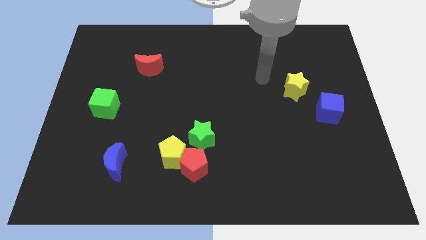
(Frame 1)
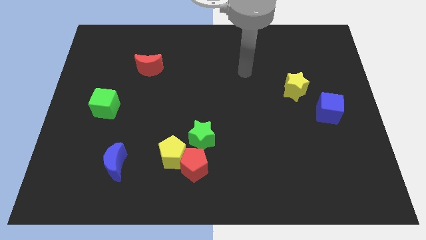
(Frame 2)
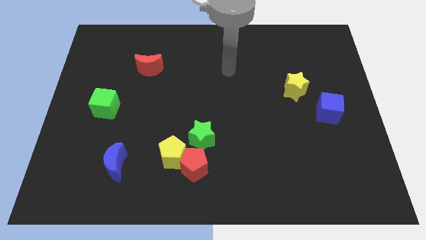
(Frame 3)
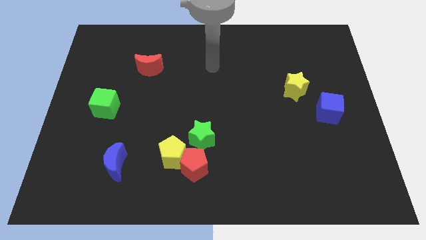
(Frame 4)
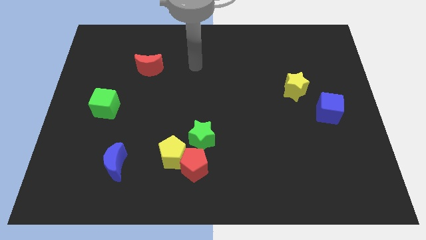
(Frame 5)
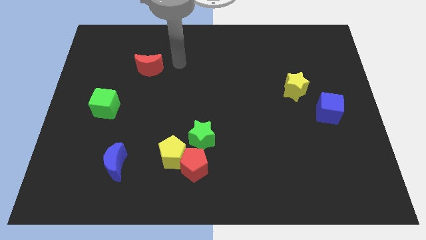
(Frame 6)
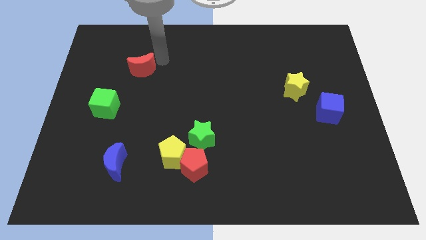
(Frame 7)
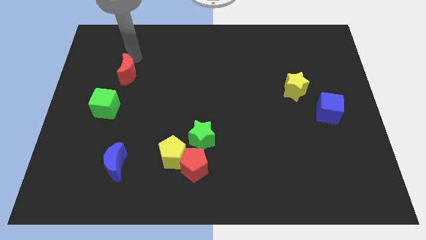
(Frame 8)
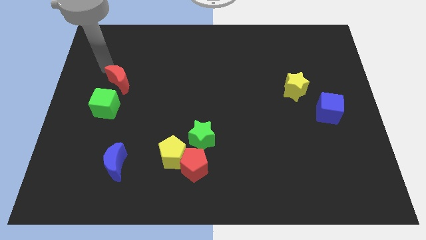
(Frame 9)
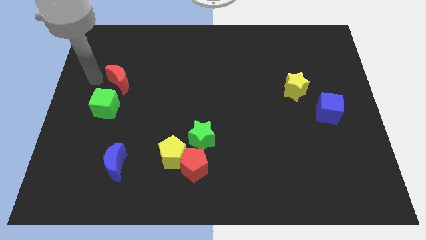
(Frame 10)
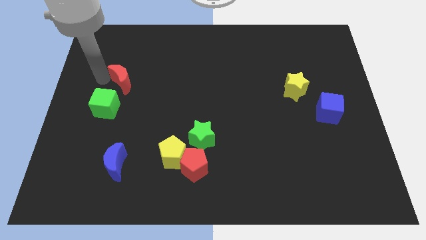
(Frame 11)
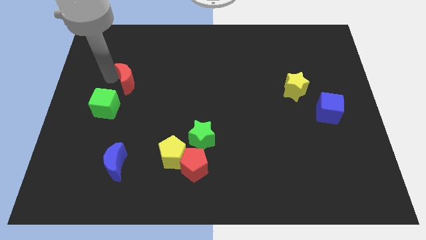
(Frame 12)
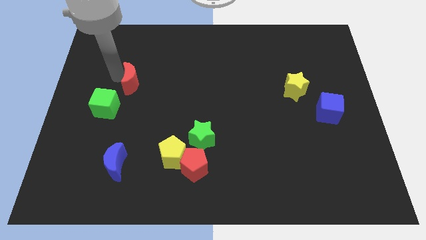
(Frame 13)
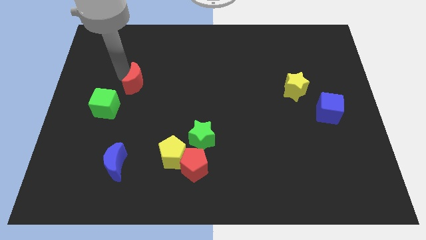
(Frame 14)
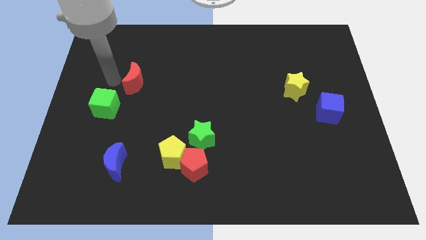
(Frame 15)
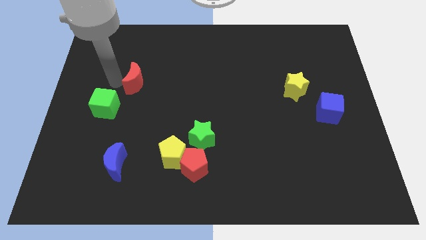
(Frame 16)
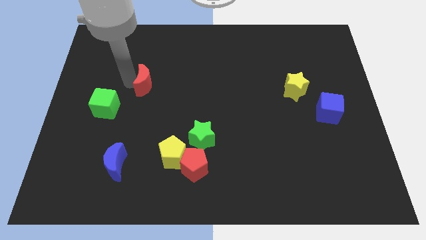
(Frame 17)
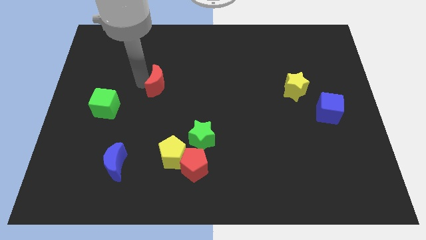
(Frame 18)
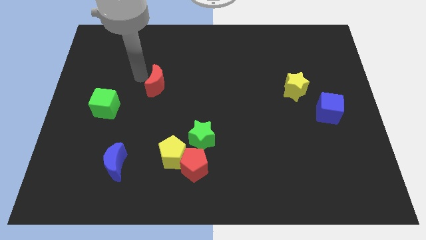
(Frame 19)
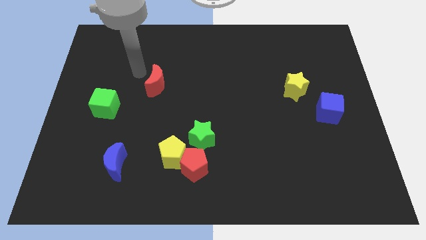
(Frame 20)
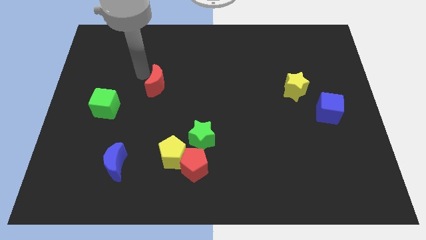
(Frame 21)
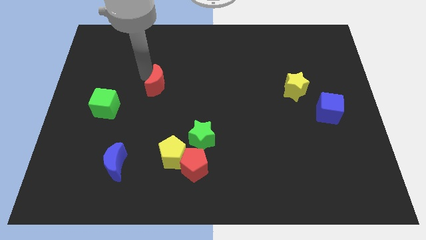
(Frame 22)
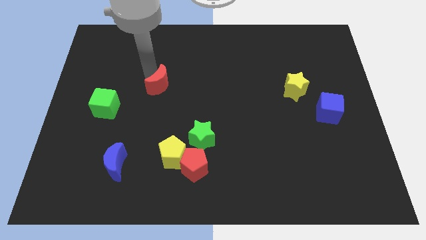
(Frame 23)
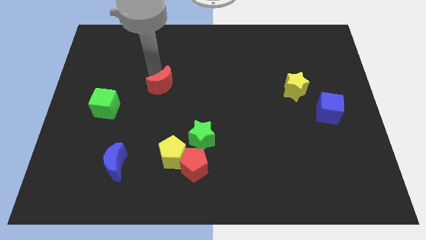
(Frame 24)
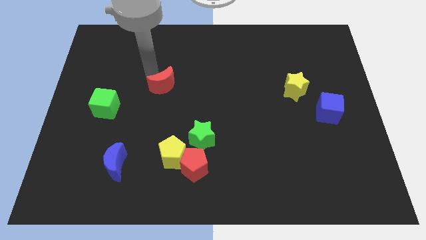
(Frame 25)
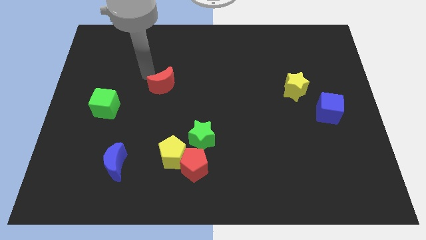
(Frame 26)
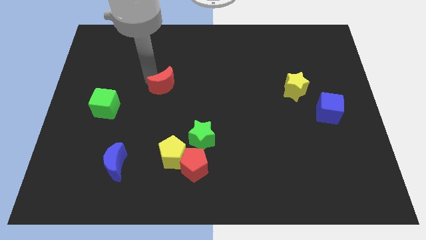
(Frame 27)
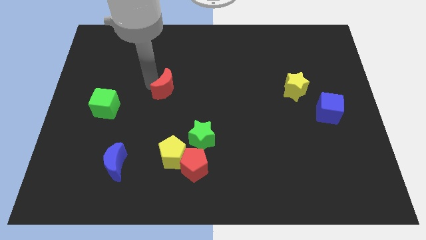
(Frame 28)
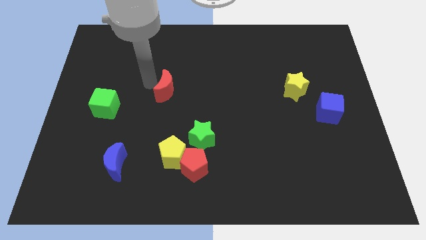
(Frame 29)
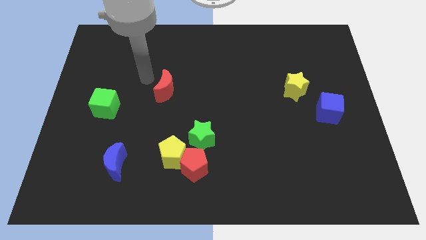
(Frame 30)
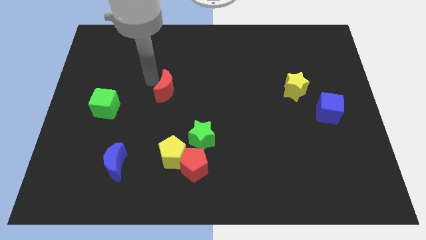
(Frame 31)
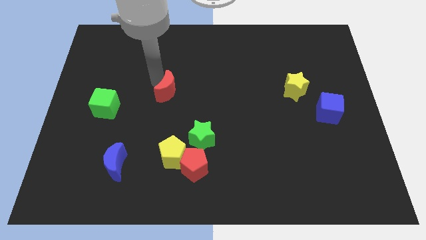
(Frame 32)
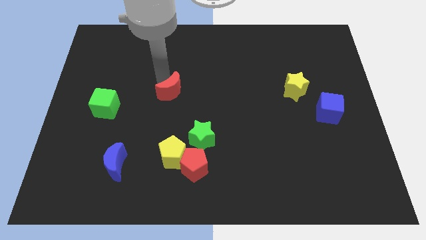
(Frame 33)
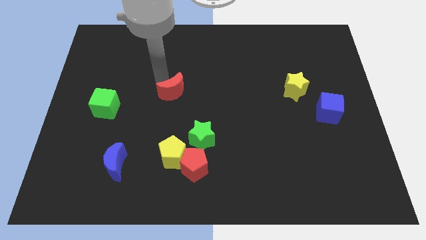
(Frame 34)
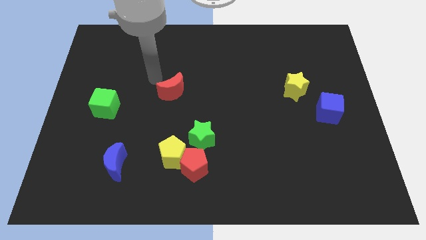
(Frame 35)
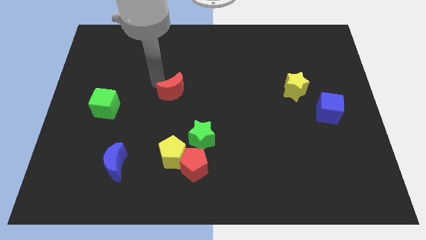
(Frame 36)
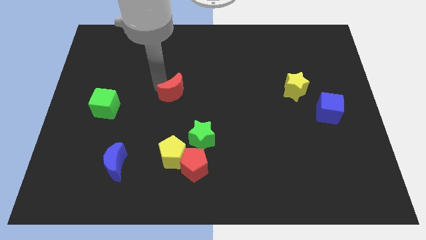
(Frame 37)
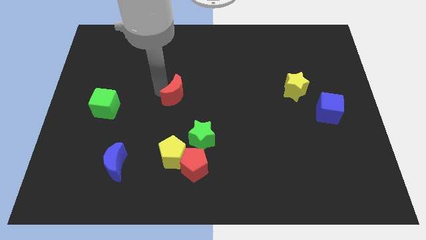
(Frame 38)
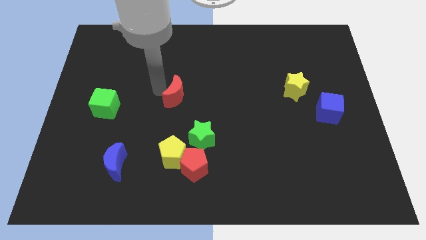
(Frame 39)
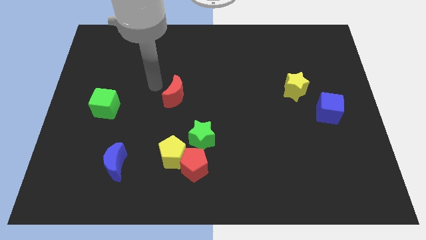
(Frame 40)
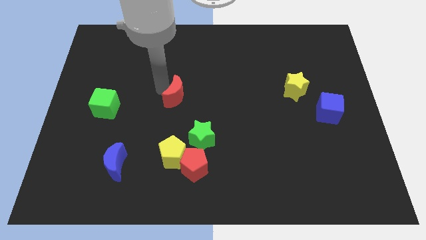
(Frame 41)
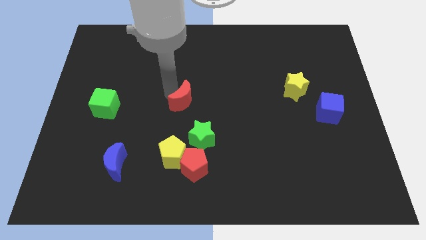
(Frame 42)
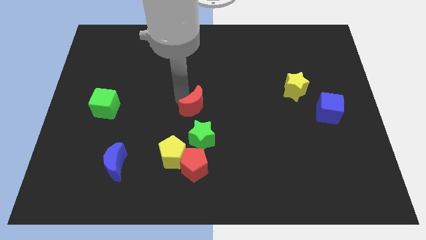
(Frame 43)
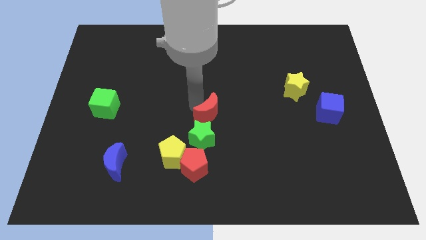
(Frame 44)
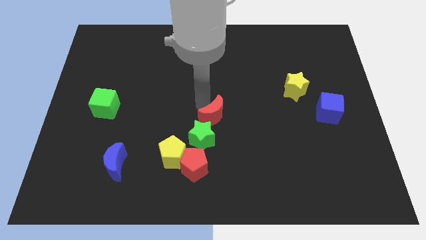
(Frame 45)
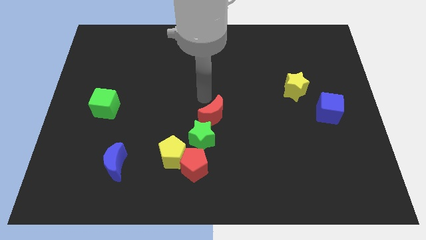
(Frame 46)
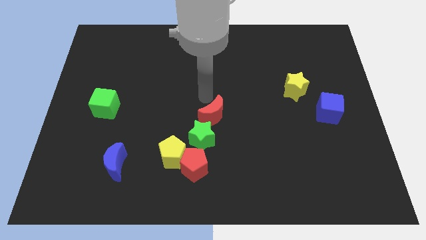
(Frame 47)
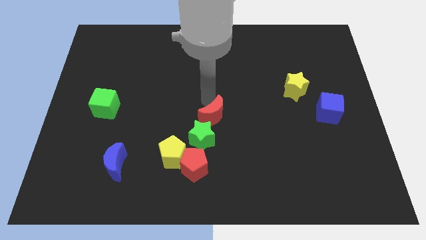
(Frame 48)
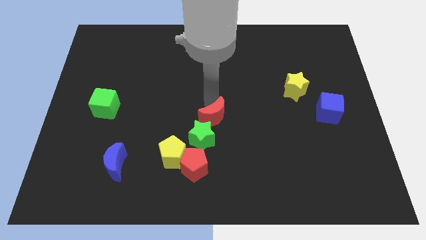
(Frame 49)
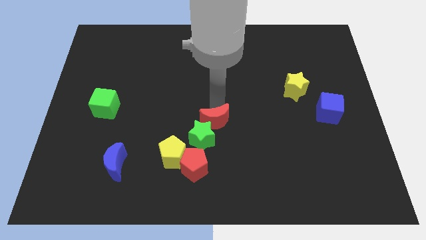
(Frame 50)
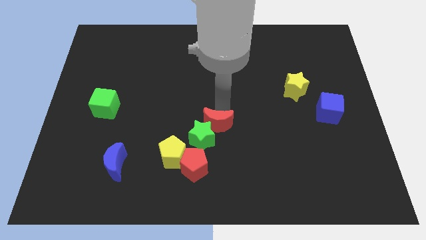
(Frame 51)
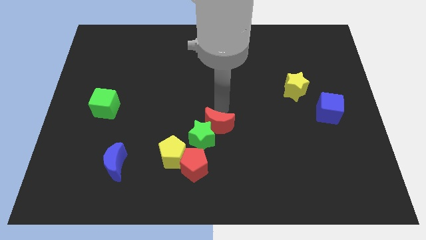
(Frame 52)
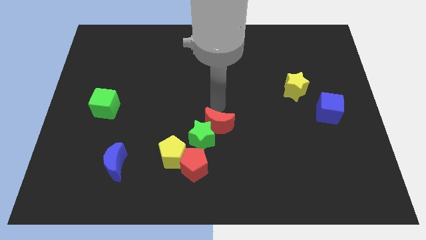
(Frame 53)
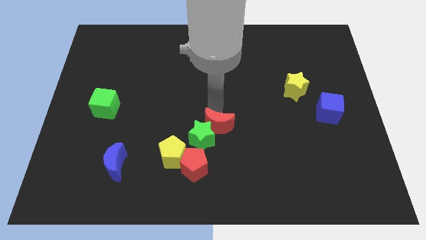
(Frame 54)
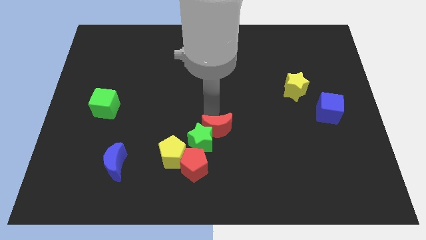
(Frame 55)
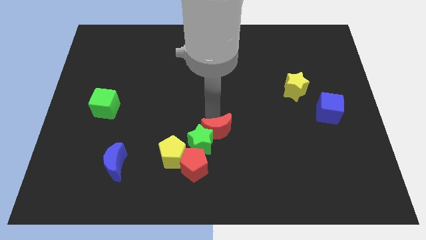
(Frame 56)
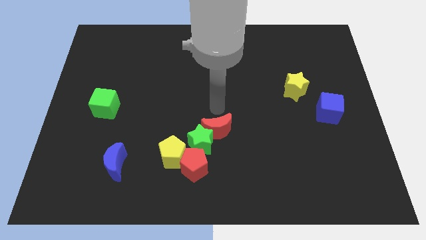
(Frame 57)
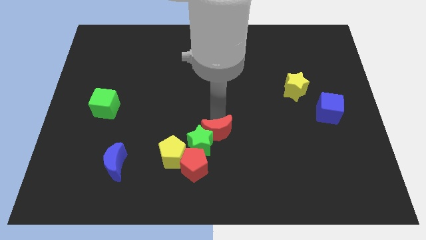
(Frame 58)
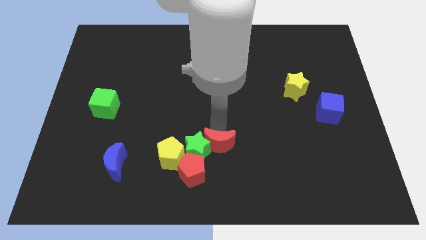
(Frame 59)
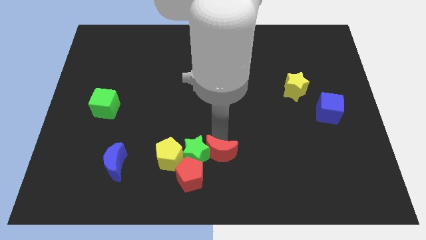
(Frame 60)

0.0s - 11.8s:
put the red moon to the bottom

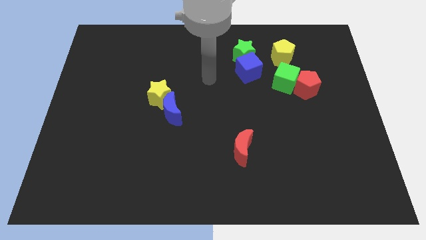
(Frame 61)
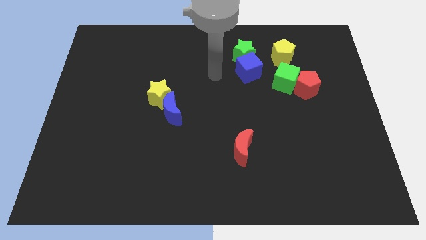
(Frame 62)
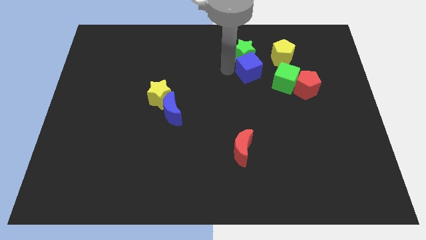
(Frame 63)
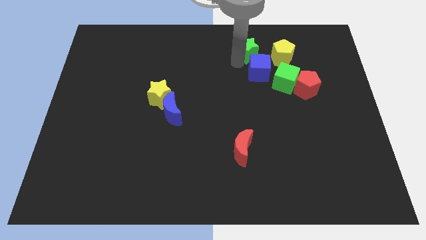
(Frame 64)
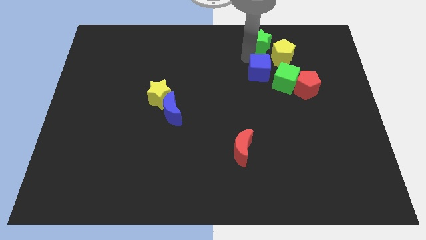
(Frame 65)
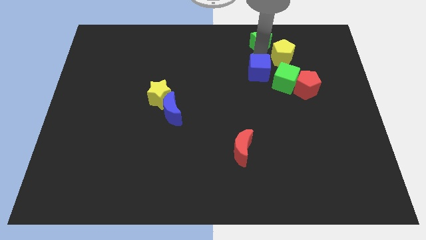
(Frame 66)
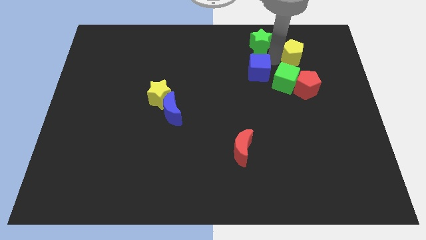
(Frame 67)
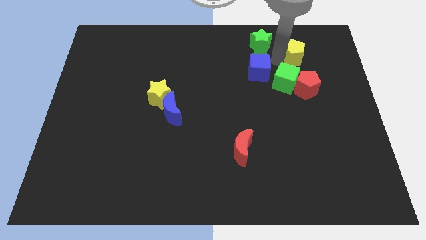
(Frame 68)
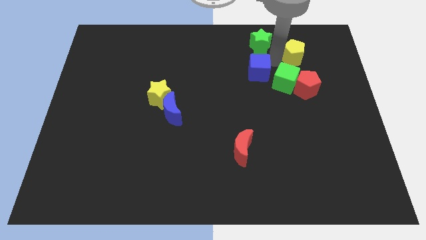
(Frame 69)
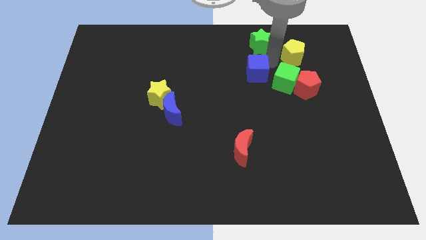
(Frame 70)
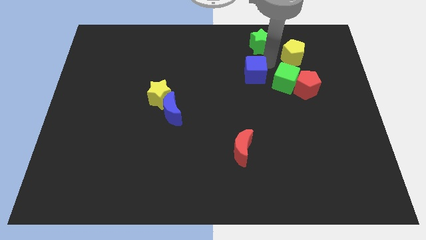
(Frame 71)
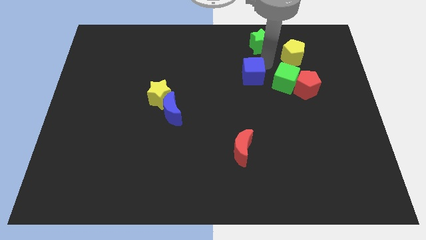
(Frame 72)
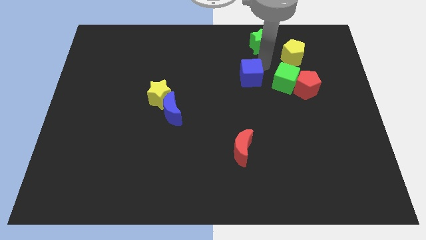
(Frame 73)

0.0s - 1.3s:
move the blue cube to the middle of the board
